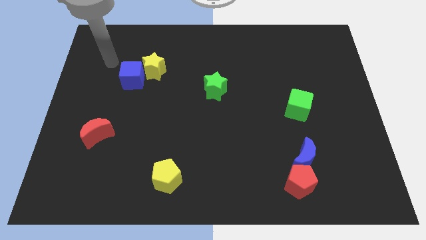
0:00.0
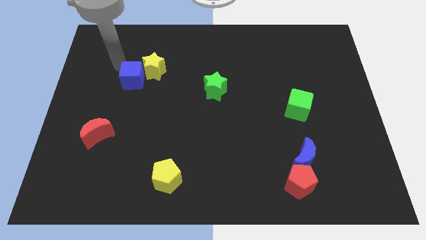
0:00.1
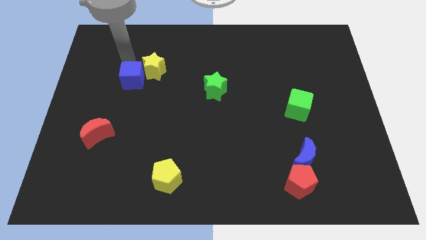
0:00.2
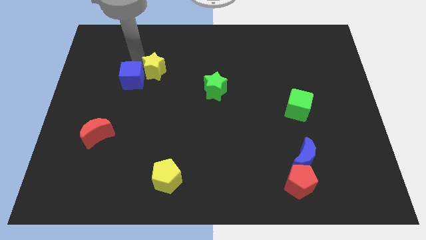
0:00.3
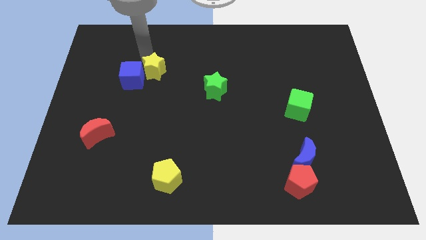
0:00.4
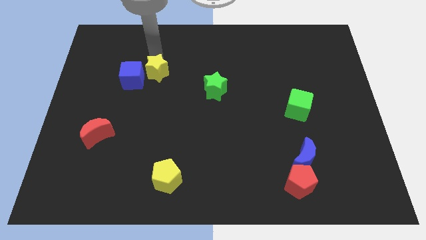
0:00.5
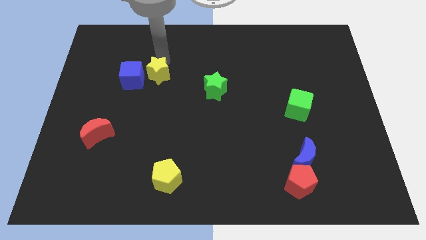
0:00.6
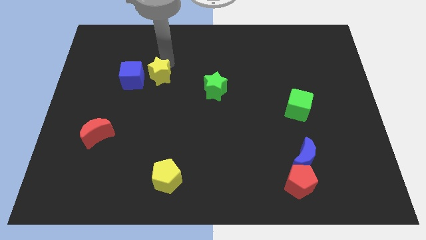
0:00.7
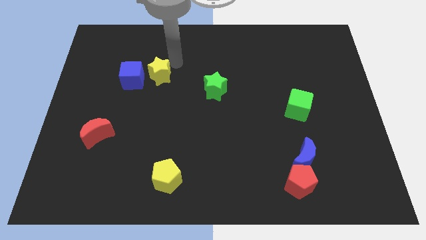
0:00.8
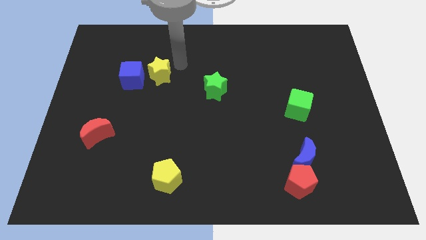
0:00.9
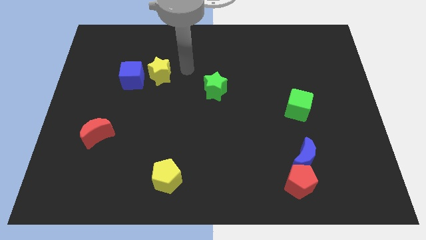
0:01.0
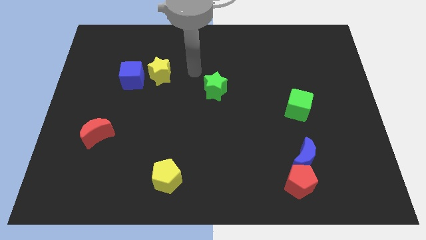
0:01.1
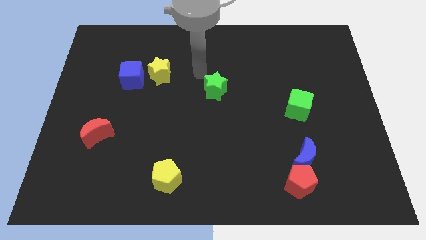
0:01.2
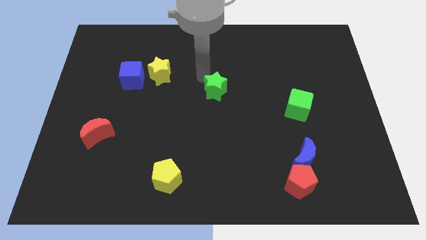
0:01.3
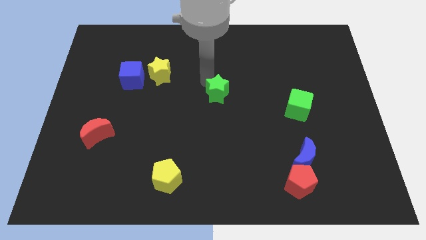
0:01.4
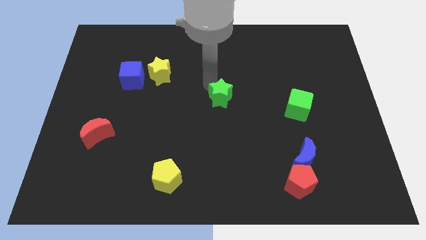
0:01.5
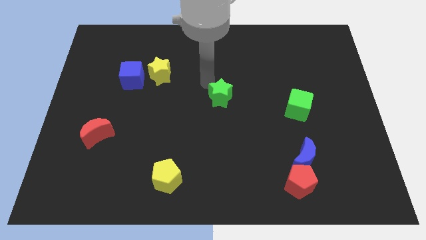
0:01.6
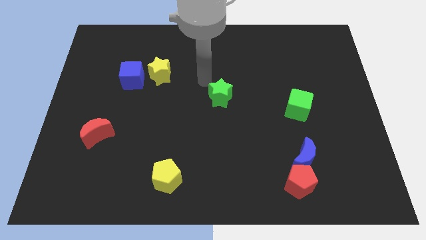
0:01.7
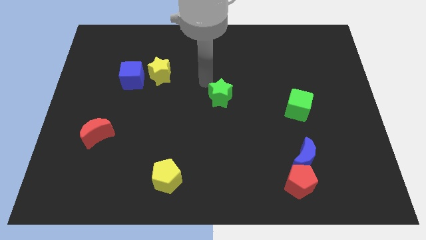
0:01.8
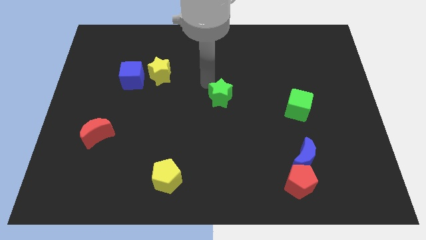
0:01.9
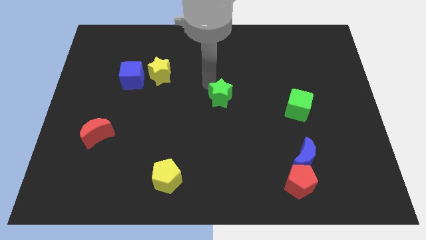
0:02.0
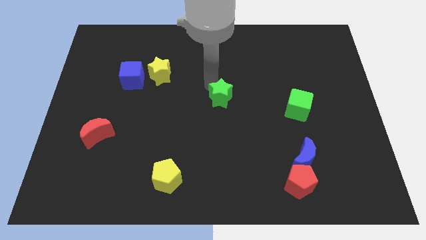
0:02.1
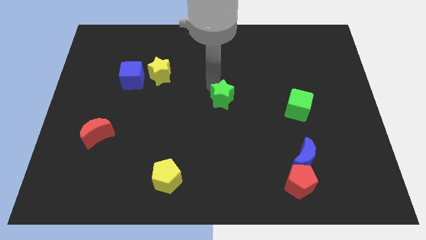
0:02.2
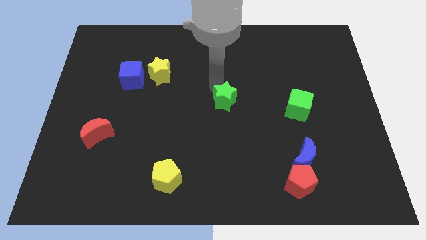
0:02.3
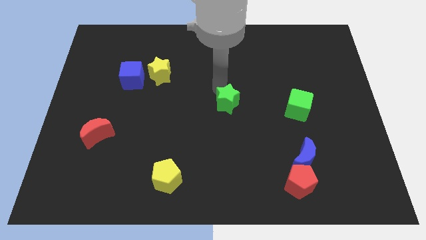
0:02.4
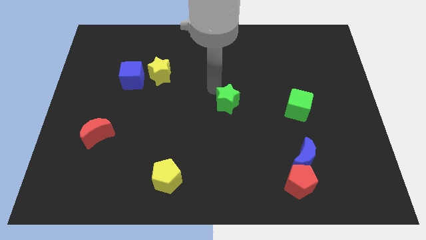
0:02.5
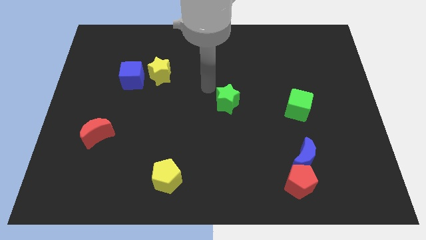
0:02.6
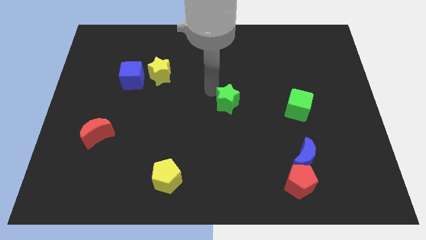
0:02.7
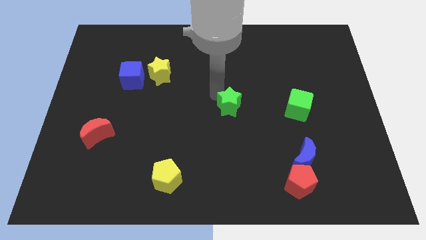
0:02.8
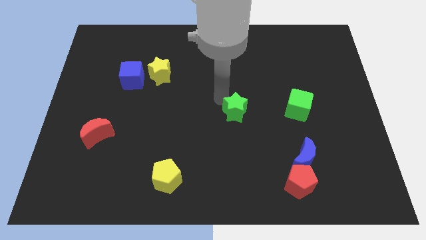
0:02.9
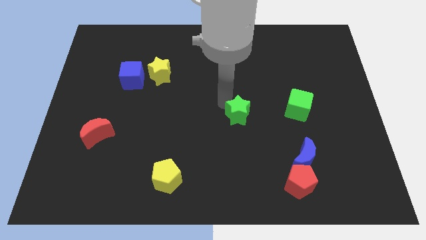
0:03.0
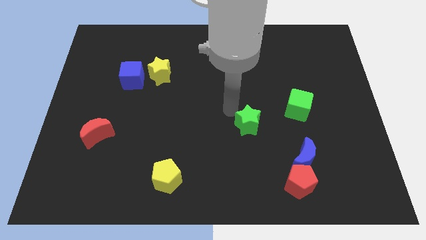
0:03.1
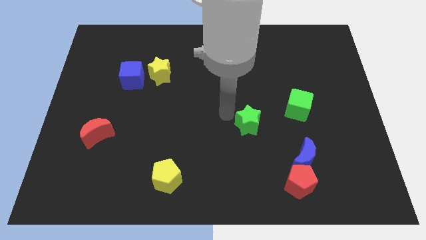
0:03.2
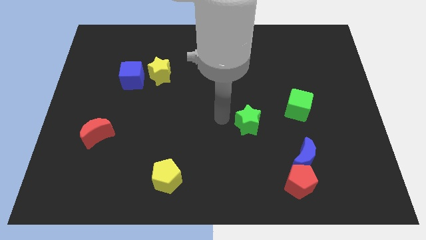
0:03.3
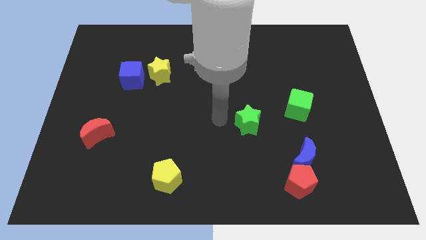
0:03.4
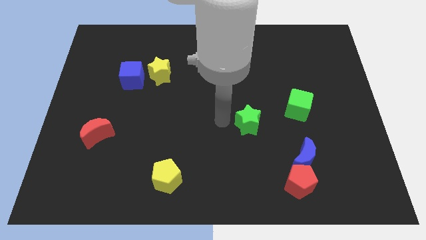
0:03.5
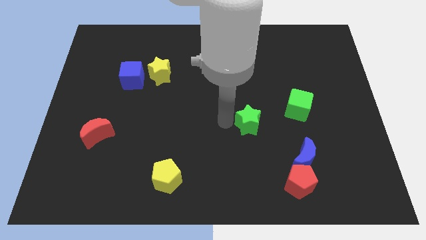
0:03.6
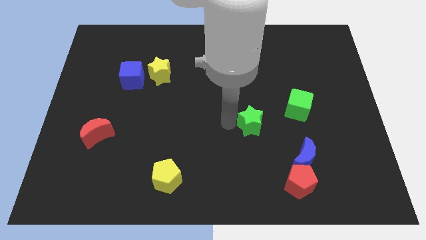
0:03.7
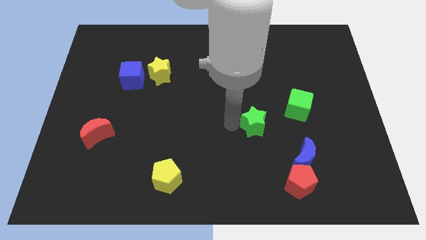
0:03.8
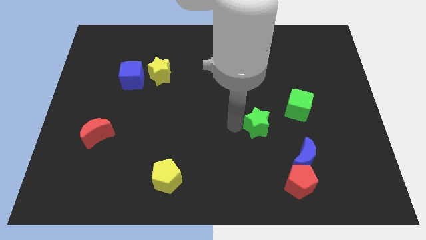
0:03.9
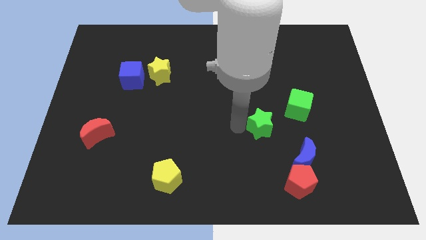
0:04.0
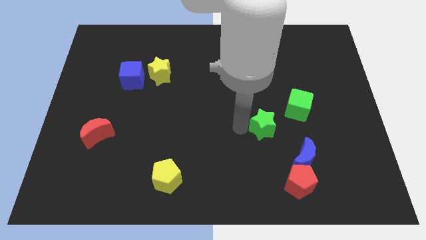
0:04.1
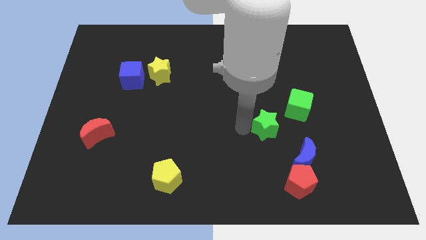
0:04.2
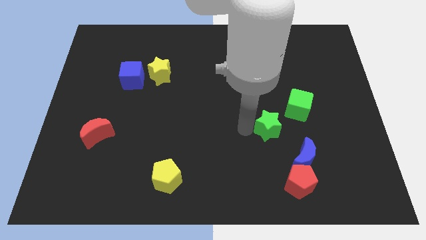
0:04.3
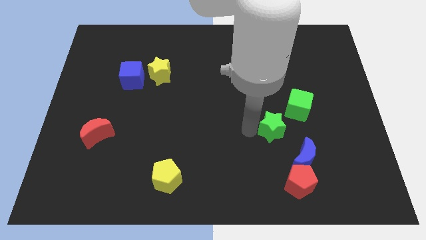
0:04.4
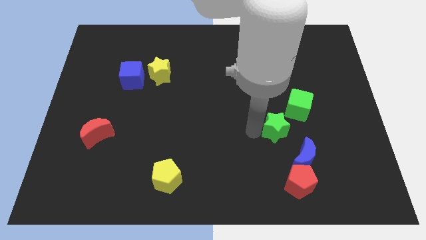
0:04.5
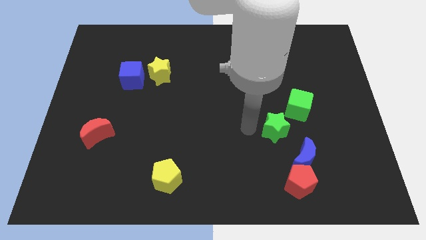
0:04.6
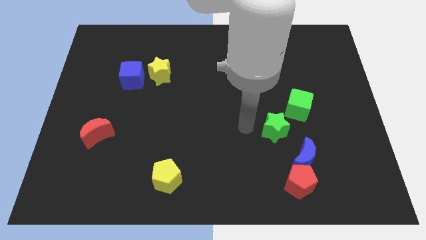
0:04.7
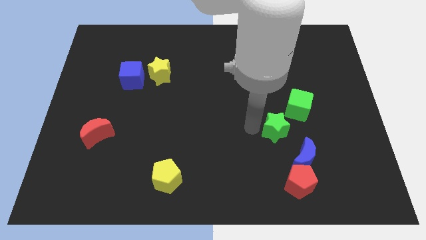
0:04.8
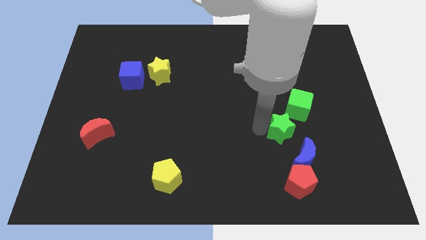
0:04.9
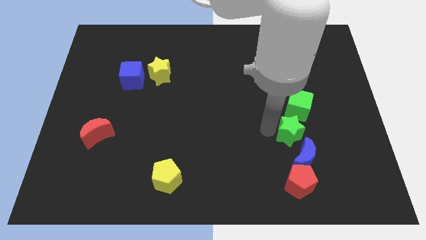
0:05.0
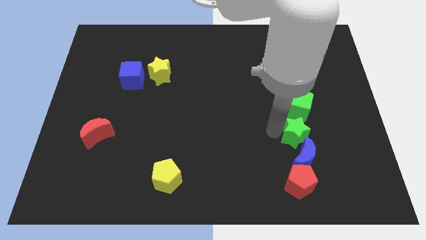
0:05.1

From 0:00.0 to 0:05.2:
slide the green star to the top right of the blue moon

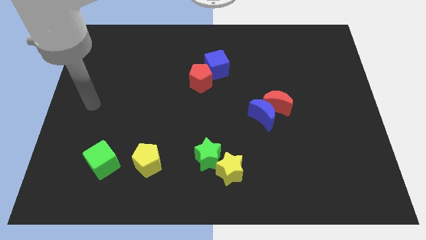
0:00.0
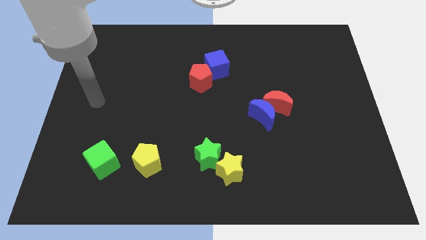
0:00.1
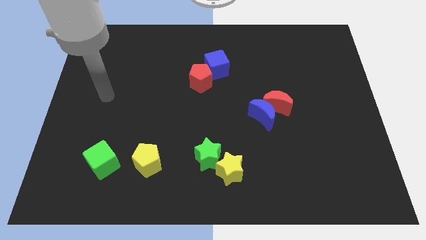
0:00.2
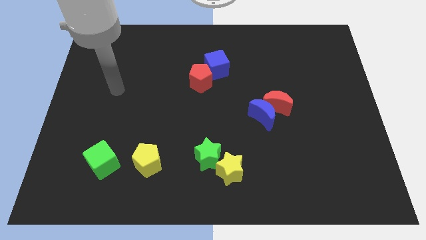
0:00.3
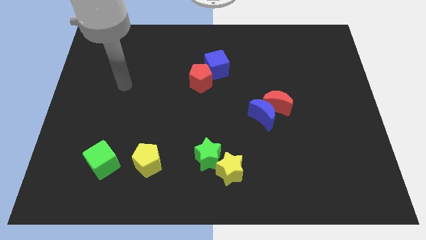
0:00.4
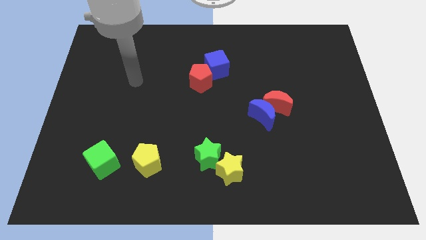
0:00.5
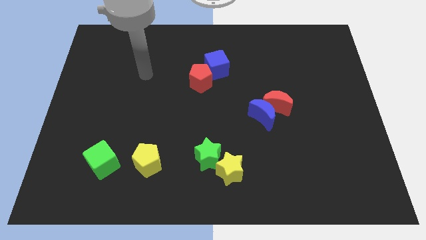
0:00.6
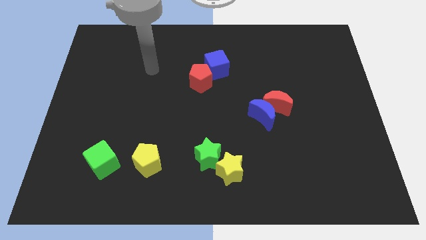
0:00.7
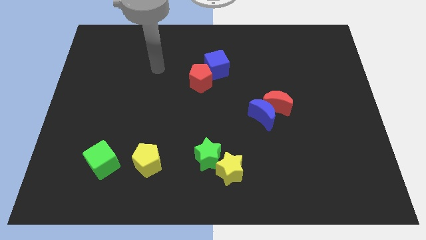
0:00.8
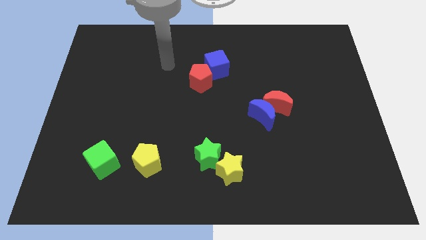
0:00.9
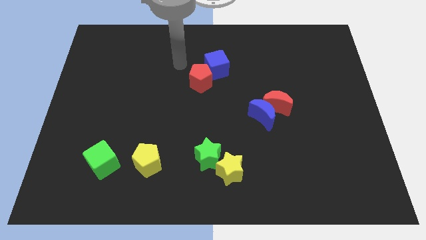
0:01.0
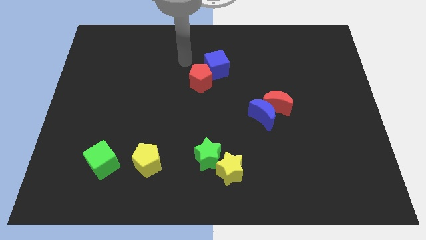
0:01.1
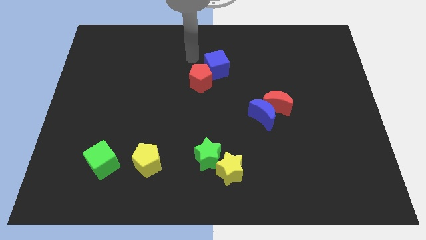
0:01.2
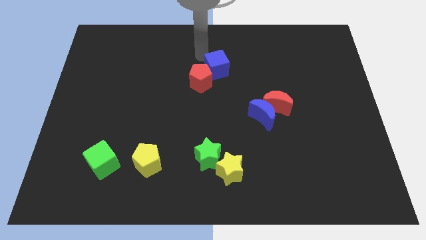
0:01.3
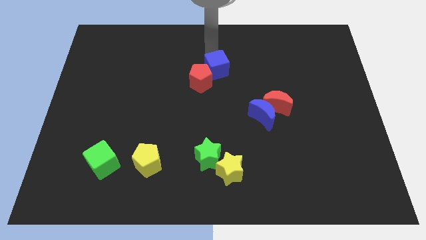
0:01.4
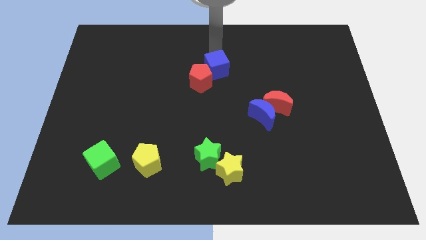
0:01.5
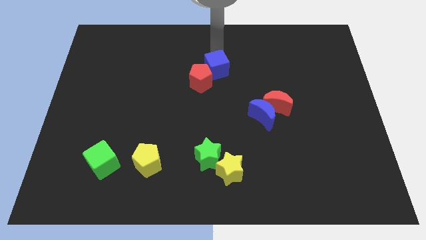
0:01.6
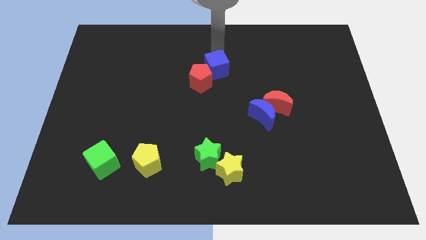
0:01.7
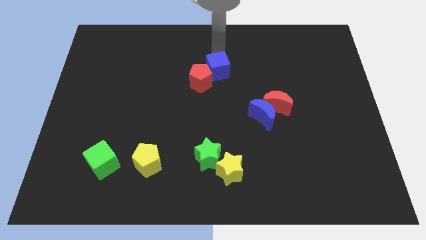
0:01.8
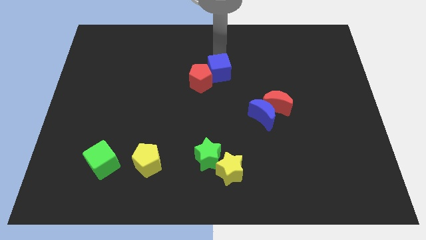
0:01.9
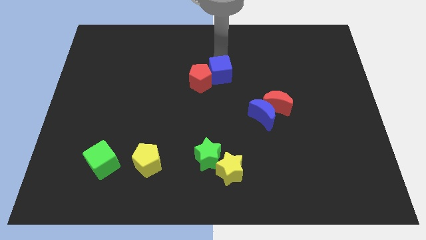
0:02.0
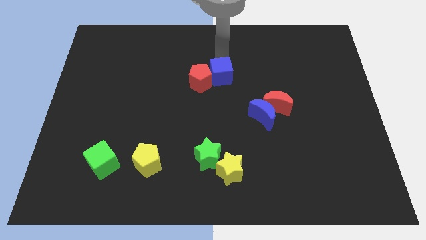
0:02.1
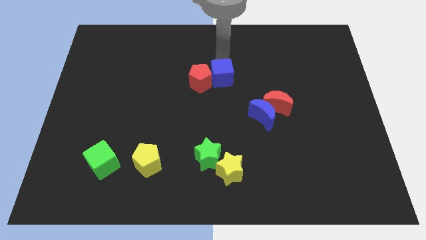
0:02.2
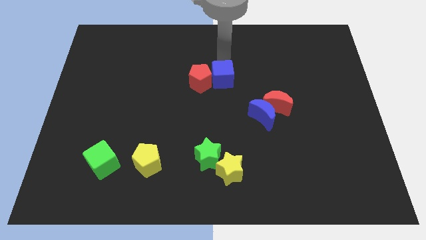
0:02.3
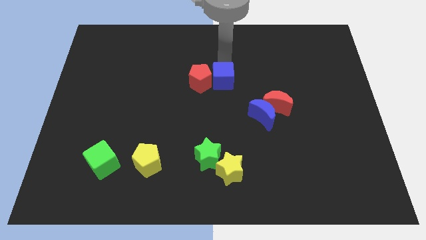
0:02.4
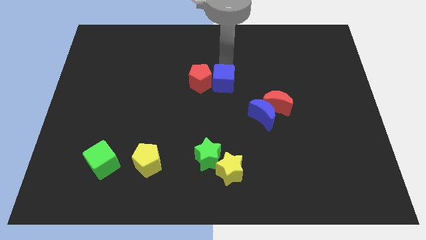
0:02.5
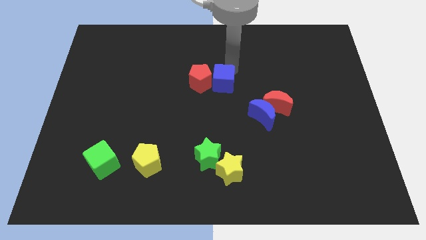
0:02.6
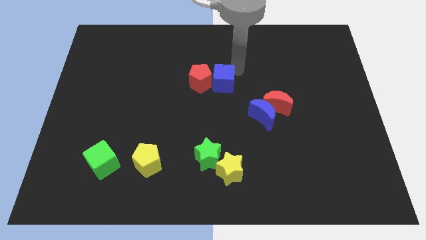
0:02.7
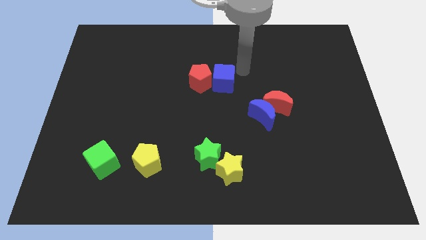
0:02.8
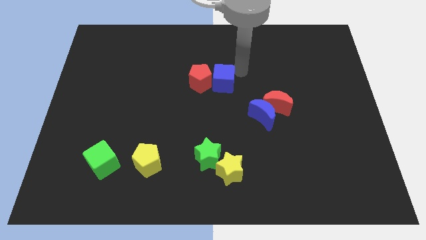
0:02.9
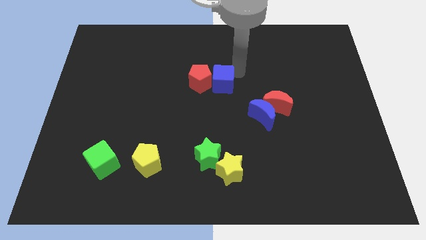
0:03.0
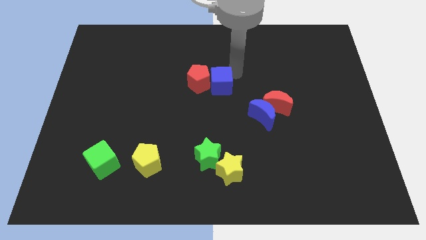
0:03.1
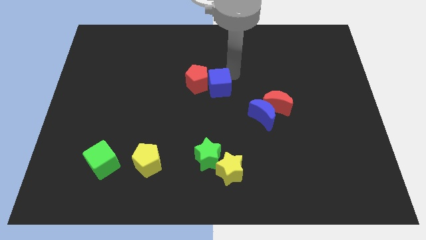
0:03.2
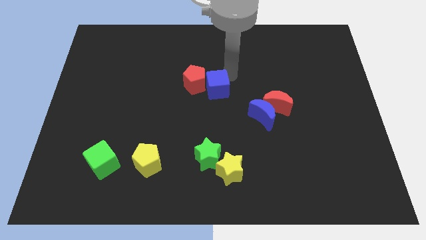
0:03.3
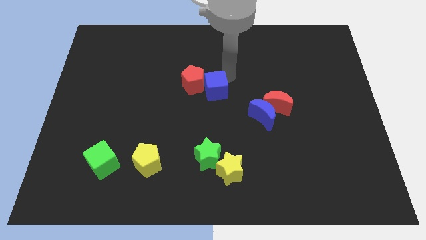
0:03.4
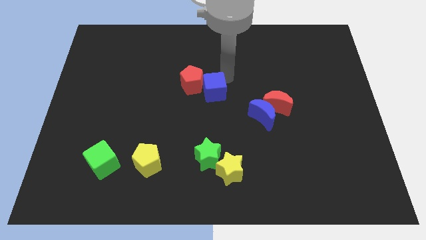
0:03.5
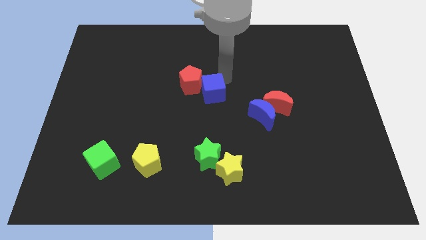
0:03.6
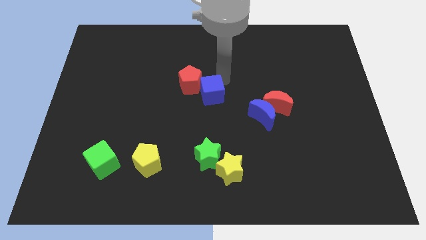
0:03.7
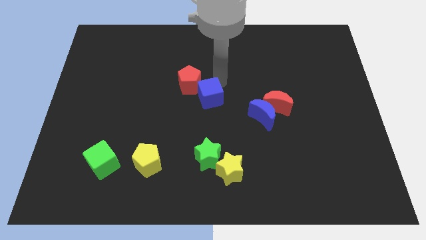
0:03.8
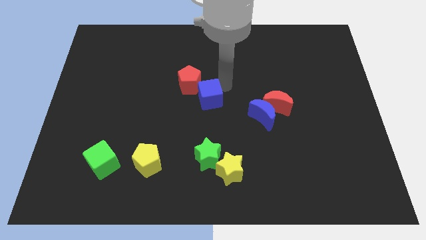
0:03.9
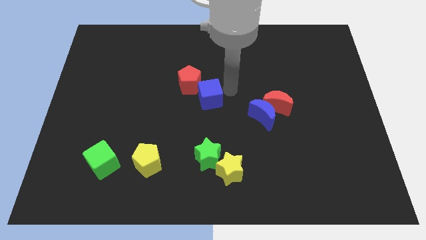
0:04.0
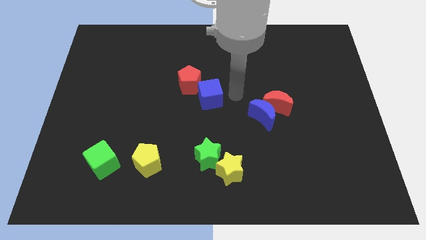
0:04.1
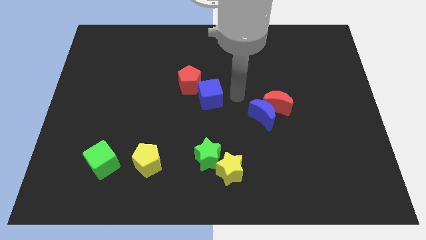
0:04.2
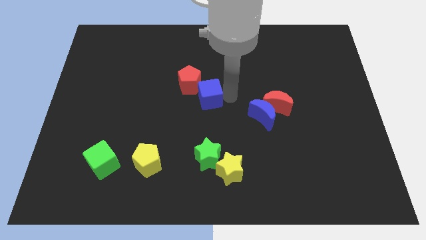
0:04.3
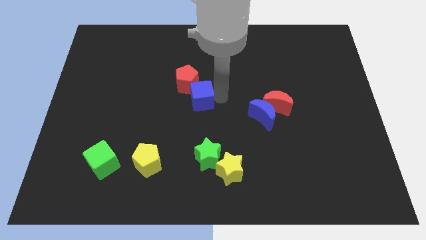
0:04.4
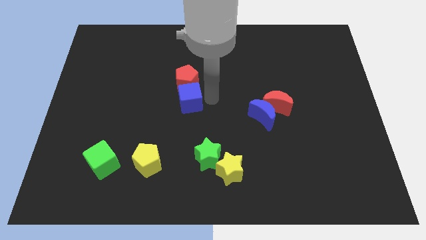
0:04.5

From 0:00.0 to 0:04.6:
push the blue cube diagonally down and to the left of the red pentagon
